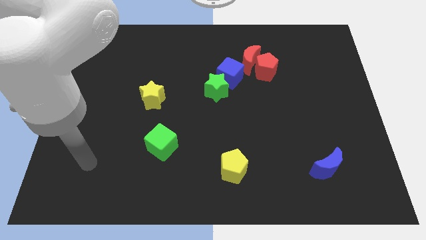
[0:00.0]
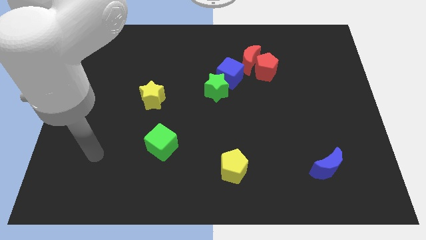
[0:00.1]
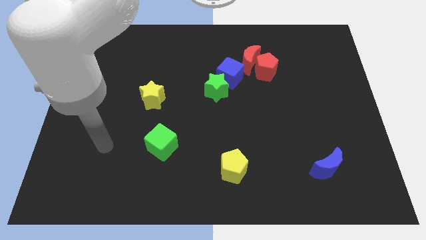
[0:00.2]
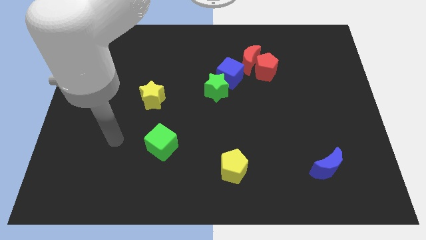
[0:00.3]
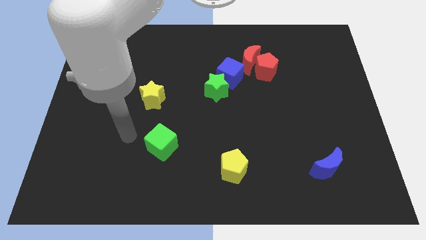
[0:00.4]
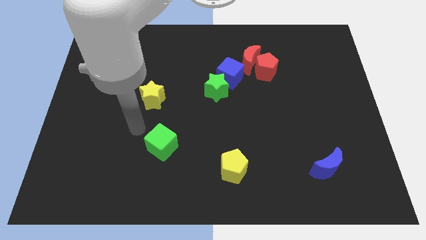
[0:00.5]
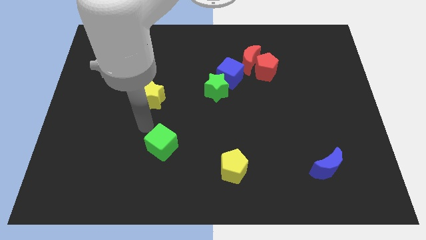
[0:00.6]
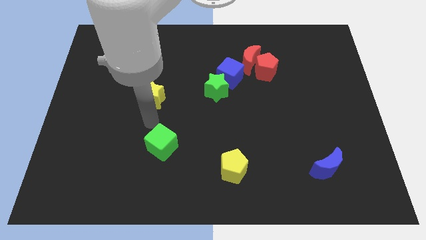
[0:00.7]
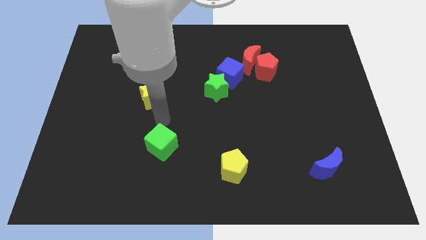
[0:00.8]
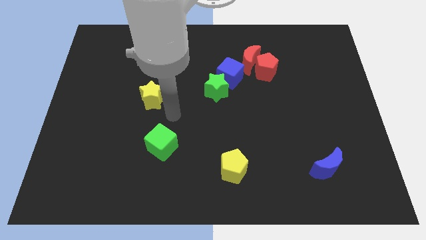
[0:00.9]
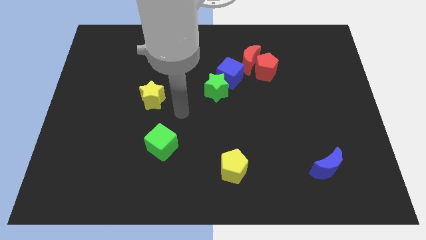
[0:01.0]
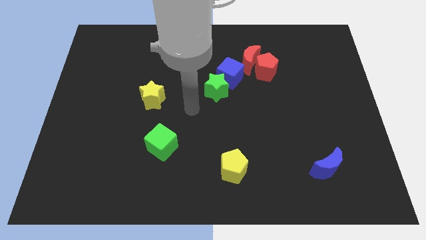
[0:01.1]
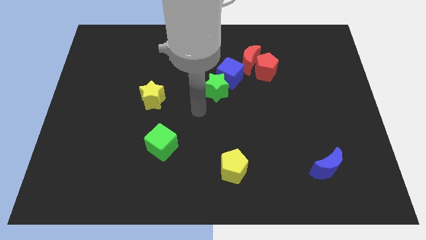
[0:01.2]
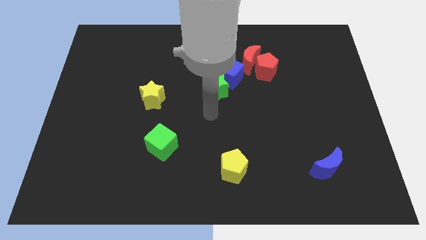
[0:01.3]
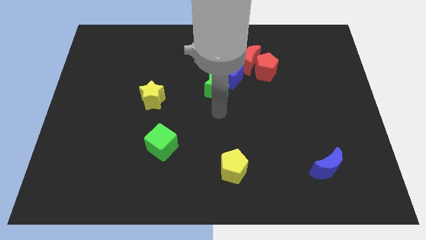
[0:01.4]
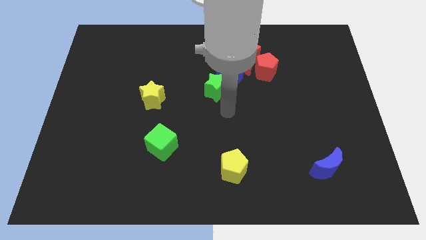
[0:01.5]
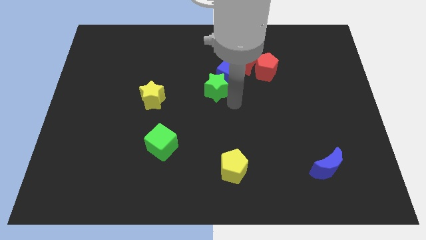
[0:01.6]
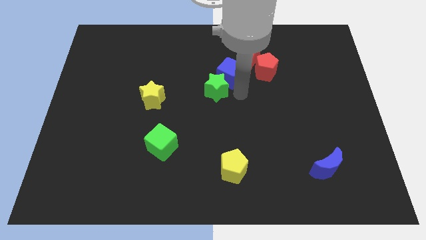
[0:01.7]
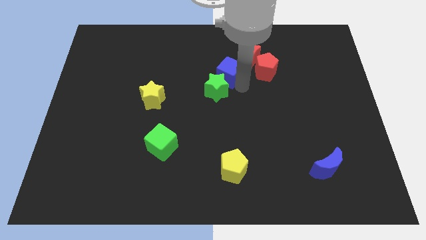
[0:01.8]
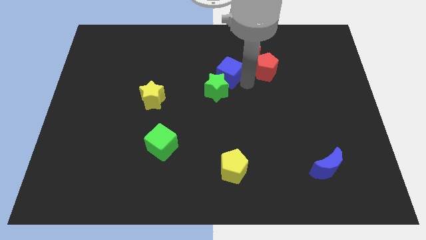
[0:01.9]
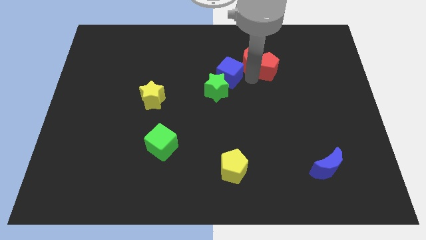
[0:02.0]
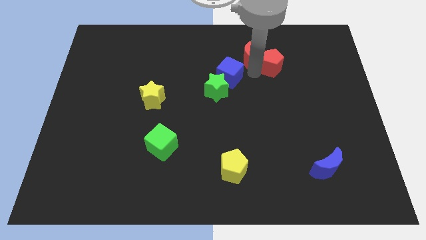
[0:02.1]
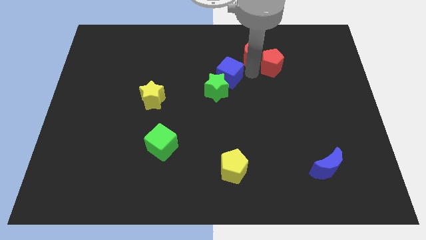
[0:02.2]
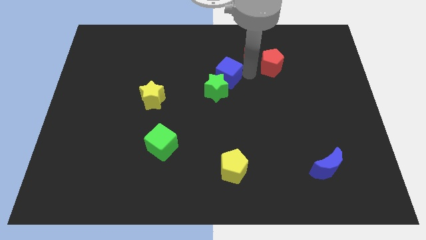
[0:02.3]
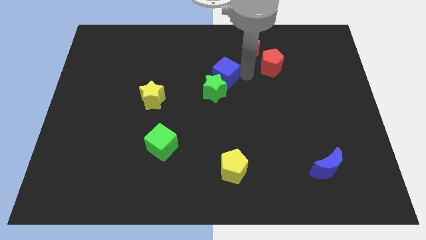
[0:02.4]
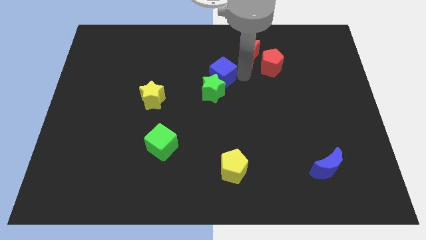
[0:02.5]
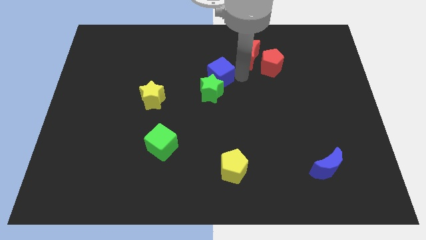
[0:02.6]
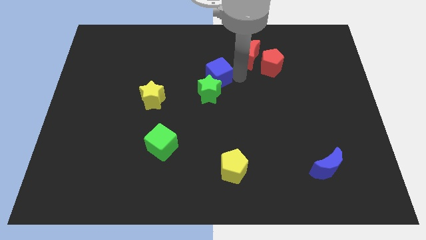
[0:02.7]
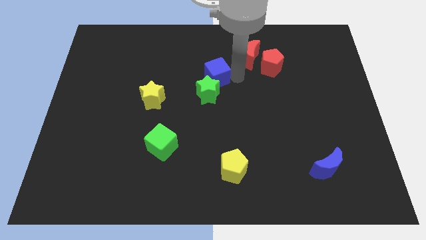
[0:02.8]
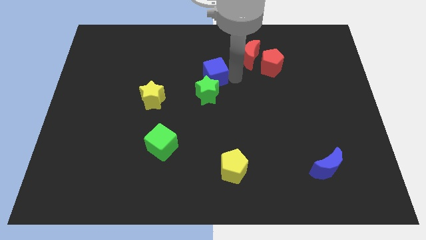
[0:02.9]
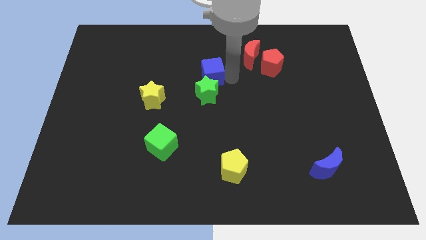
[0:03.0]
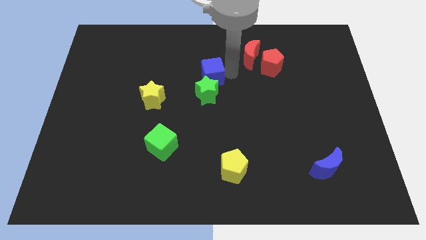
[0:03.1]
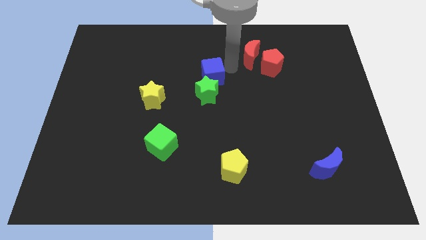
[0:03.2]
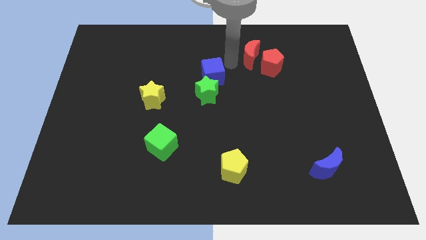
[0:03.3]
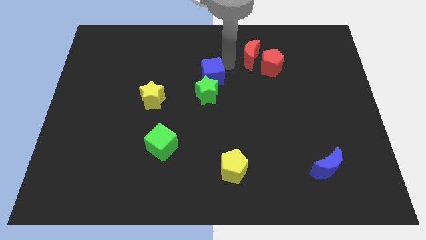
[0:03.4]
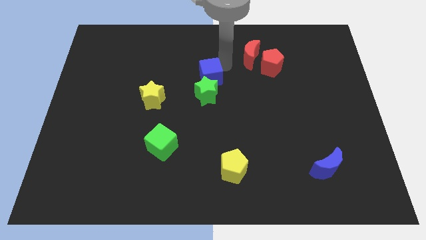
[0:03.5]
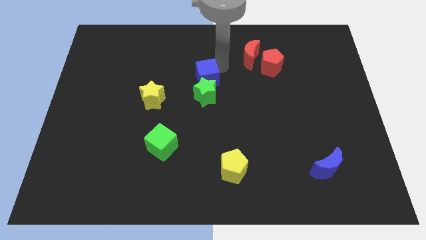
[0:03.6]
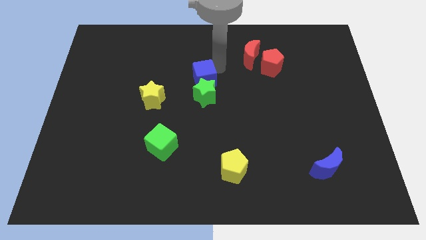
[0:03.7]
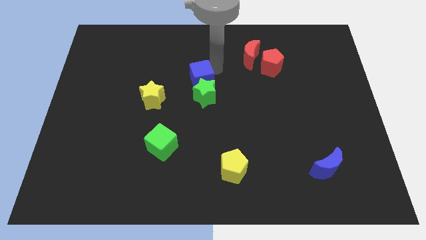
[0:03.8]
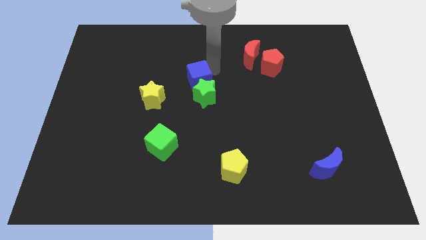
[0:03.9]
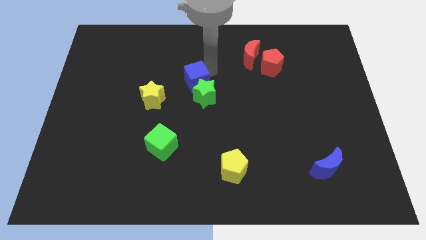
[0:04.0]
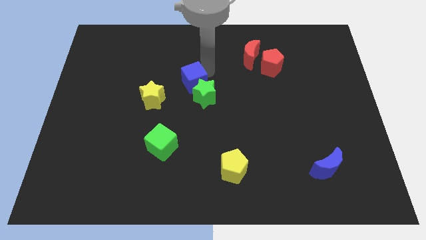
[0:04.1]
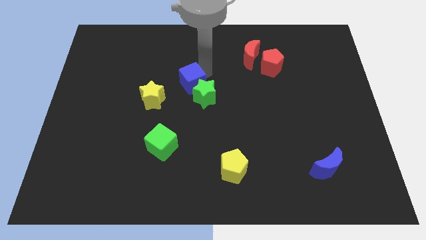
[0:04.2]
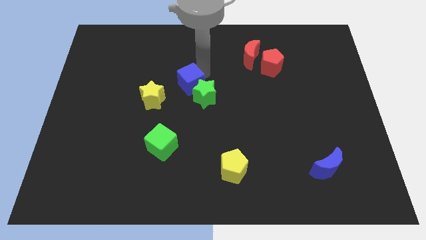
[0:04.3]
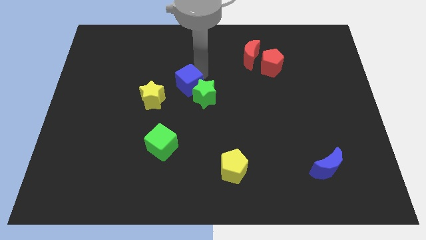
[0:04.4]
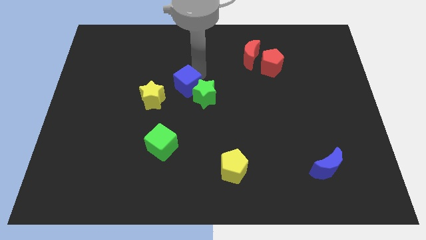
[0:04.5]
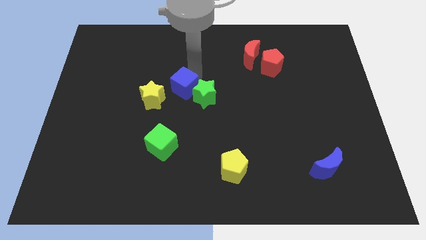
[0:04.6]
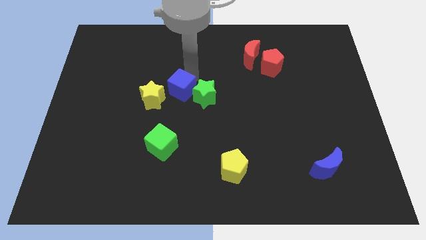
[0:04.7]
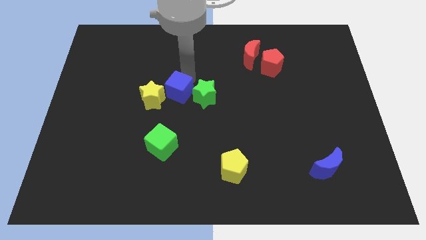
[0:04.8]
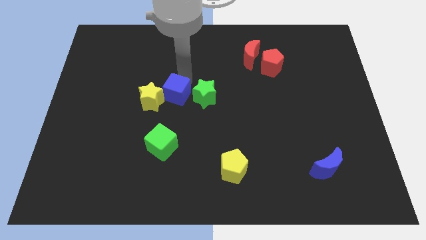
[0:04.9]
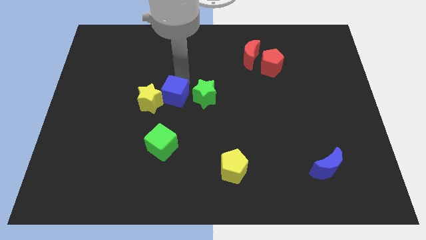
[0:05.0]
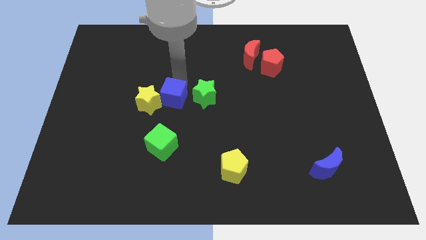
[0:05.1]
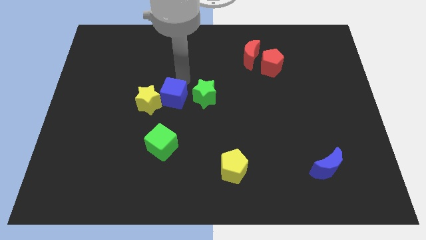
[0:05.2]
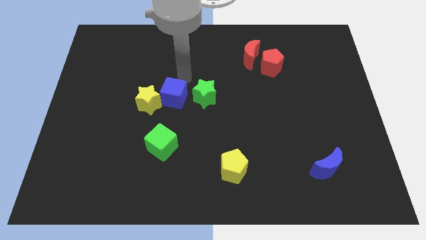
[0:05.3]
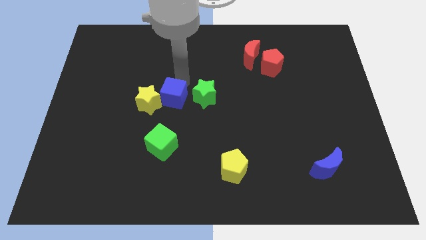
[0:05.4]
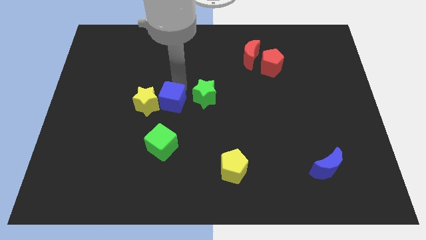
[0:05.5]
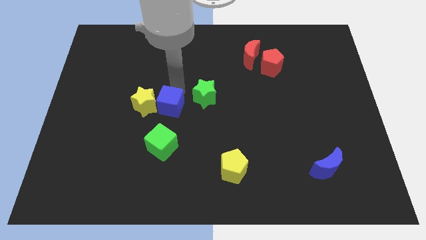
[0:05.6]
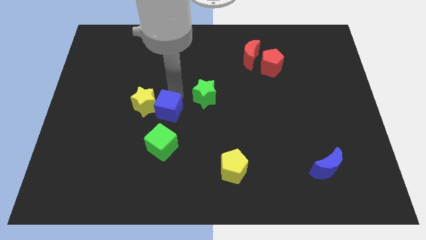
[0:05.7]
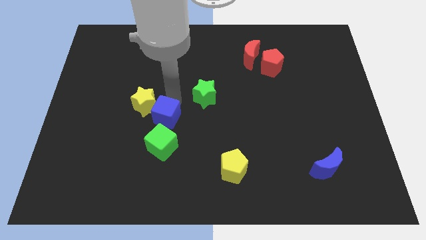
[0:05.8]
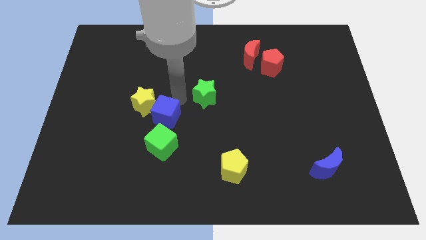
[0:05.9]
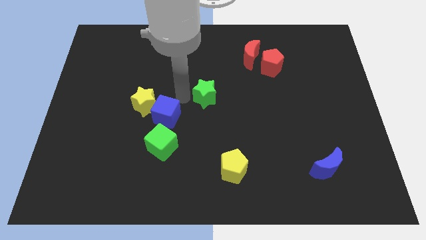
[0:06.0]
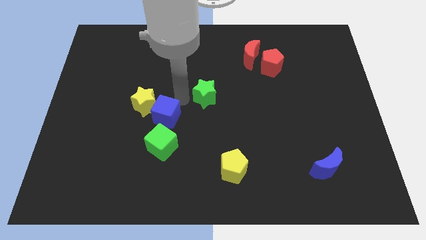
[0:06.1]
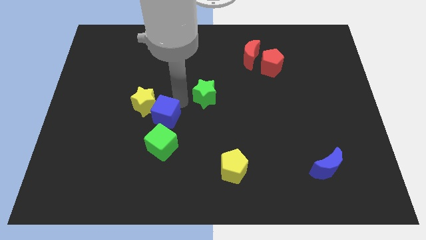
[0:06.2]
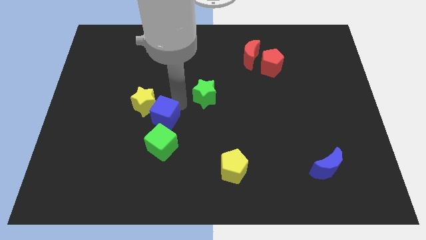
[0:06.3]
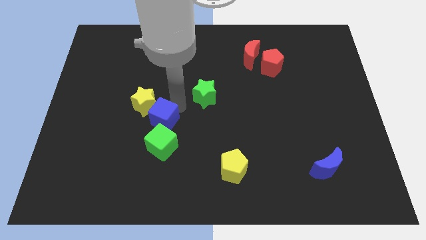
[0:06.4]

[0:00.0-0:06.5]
push the blue cube downwards and to the left diagonally

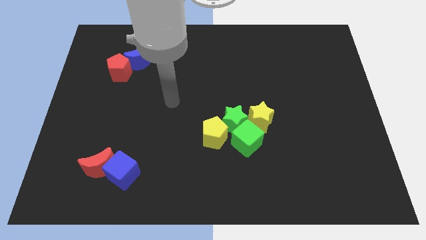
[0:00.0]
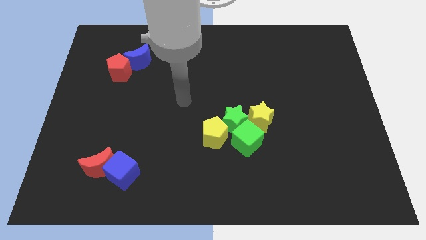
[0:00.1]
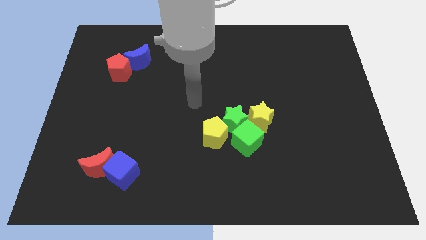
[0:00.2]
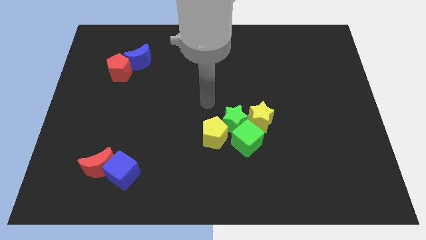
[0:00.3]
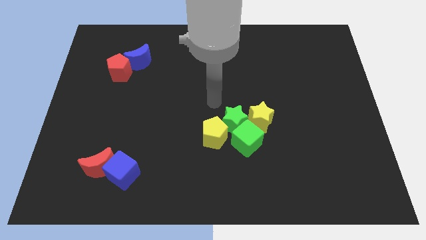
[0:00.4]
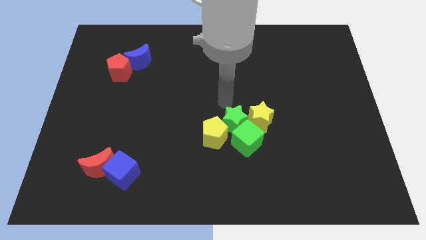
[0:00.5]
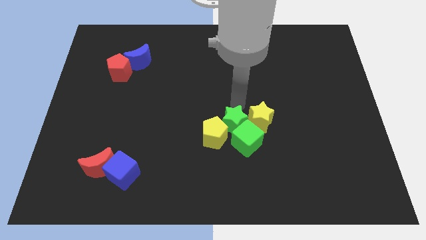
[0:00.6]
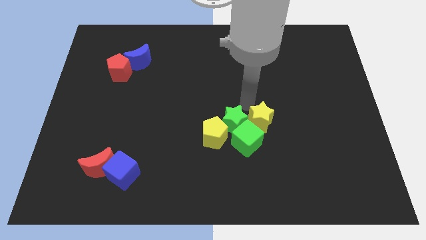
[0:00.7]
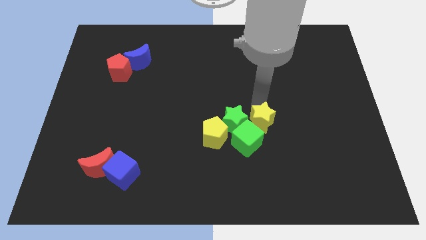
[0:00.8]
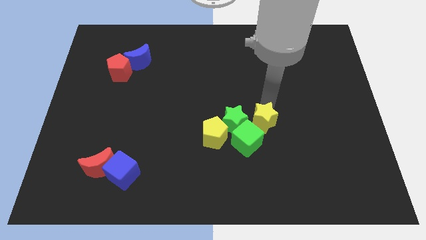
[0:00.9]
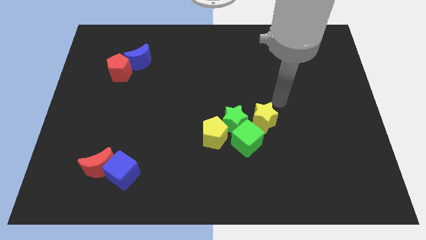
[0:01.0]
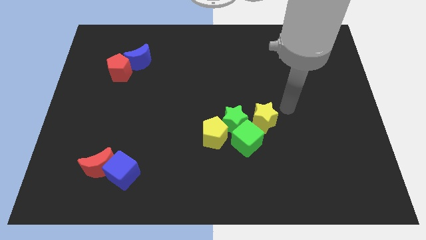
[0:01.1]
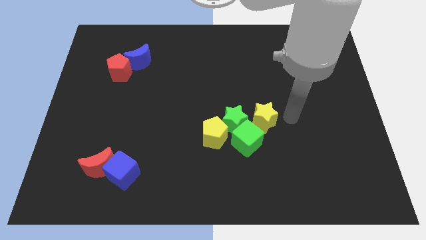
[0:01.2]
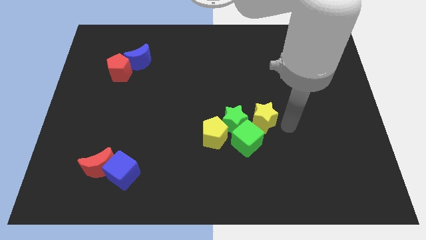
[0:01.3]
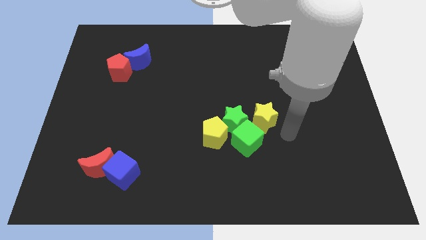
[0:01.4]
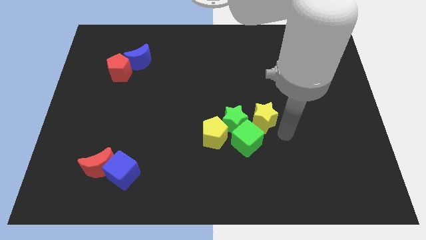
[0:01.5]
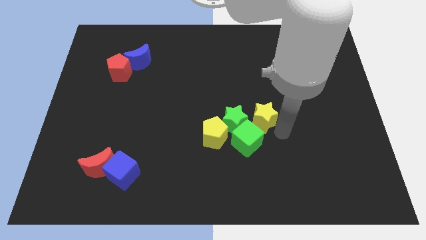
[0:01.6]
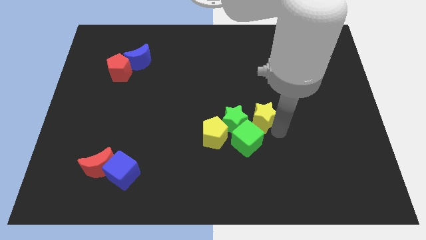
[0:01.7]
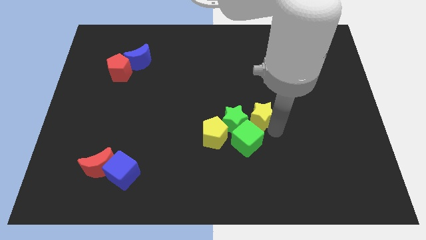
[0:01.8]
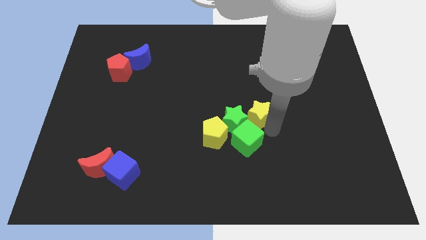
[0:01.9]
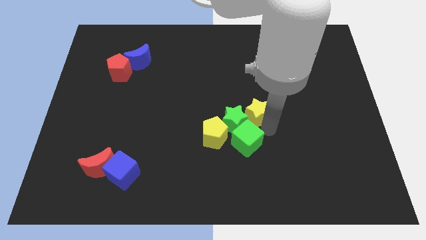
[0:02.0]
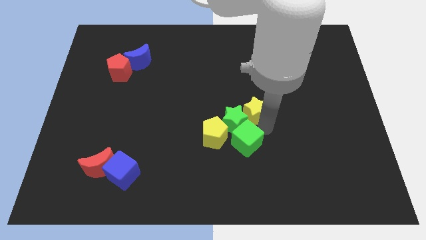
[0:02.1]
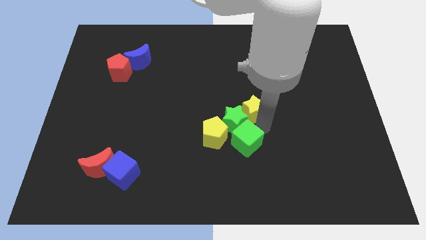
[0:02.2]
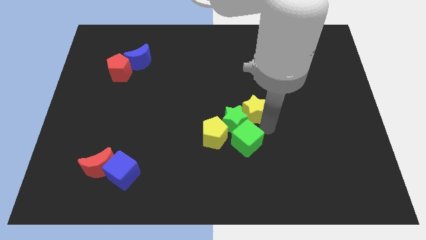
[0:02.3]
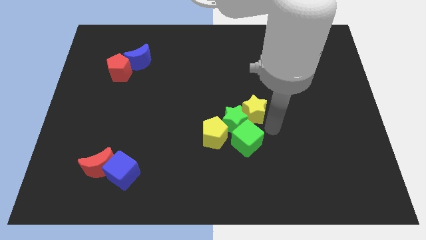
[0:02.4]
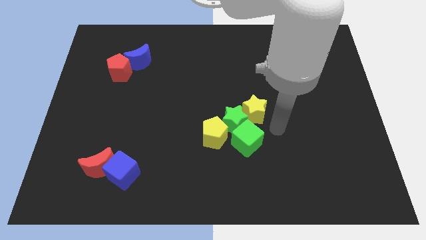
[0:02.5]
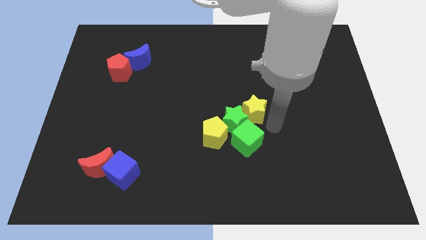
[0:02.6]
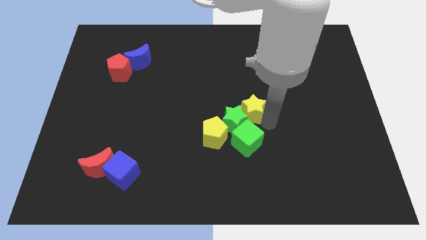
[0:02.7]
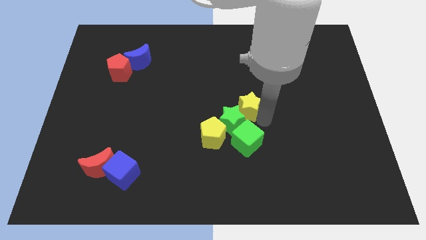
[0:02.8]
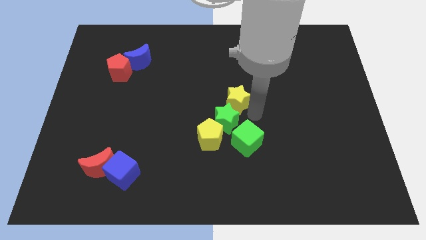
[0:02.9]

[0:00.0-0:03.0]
move the yellow star up and then left somewhat
